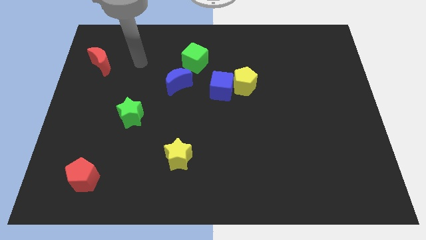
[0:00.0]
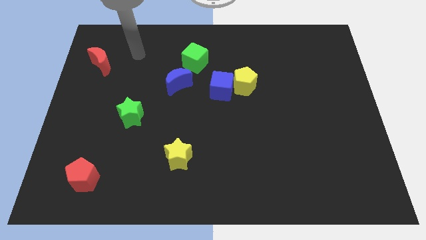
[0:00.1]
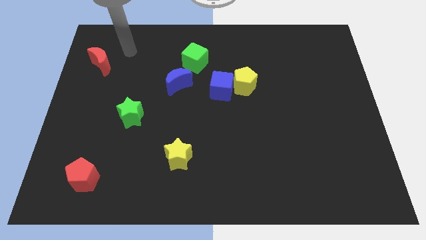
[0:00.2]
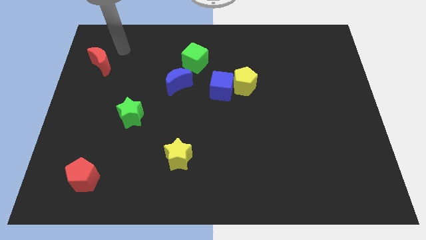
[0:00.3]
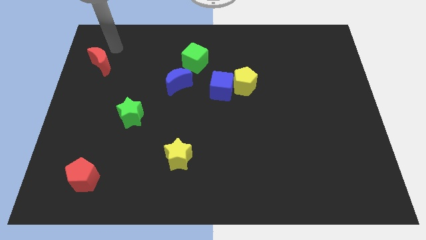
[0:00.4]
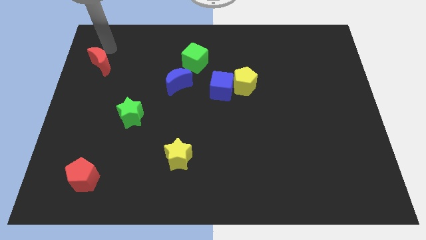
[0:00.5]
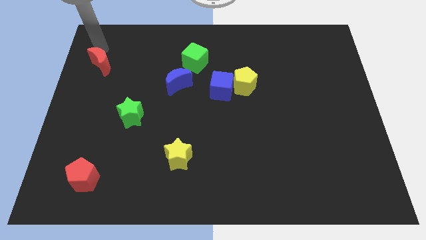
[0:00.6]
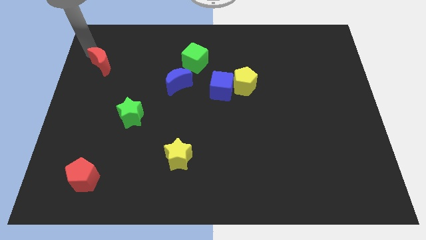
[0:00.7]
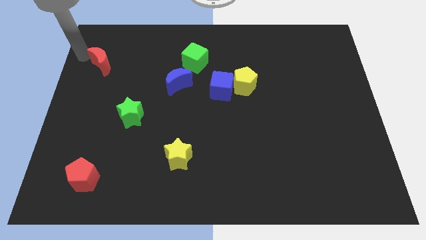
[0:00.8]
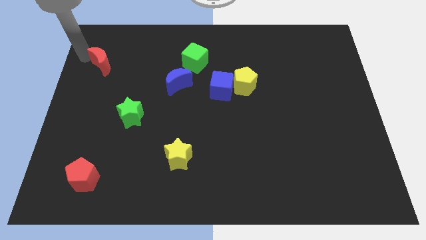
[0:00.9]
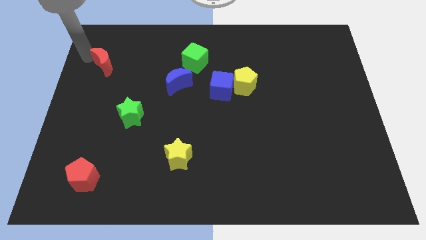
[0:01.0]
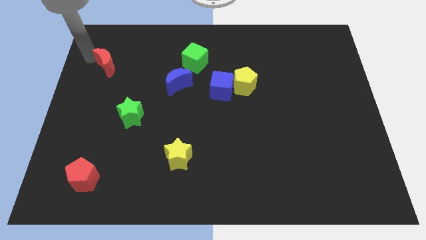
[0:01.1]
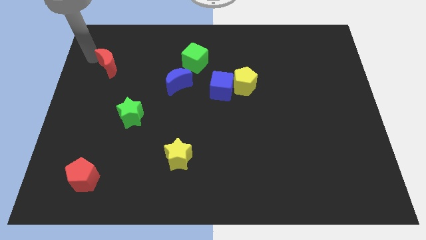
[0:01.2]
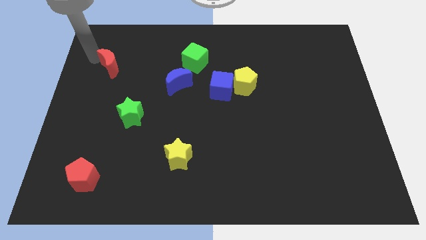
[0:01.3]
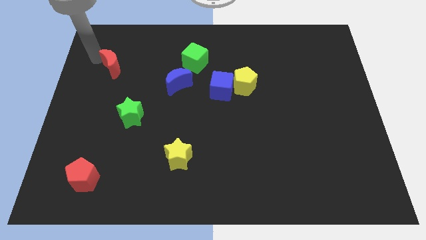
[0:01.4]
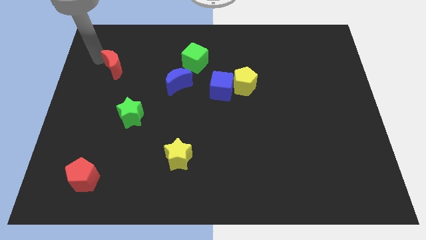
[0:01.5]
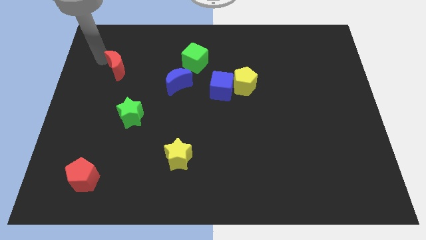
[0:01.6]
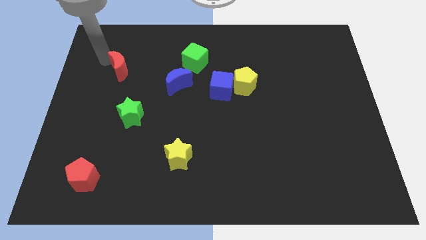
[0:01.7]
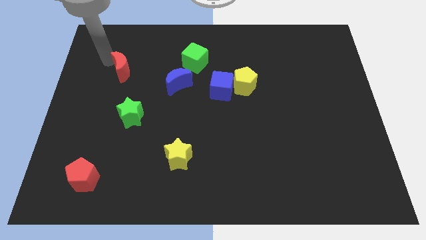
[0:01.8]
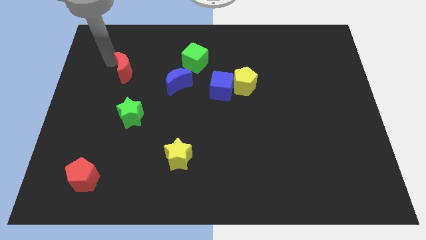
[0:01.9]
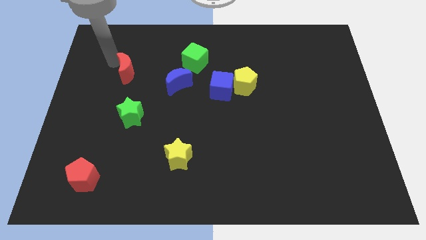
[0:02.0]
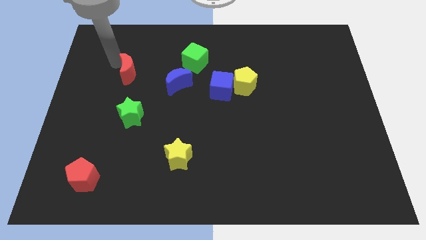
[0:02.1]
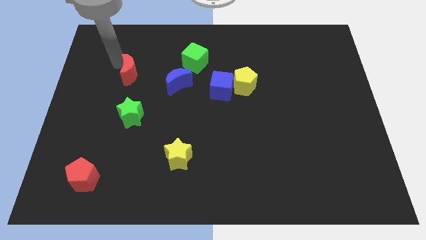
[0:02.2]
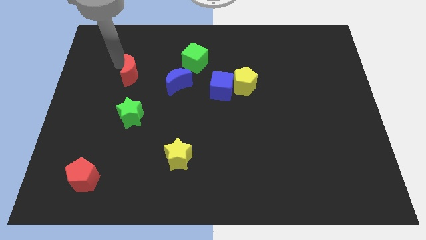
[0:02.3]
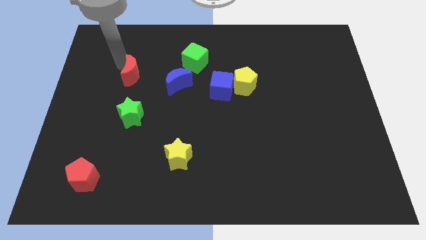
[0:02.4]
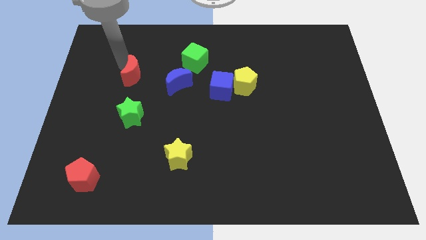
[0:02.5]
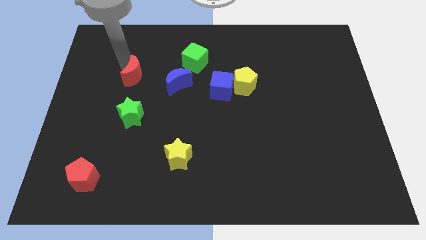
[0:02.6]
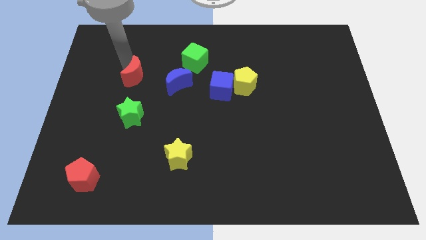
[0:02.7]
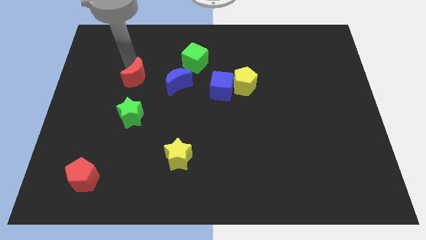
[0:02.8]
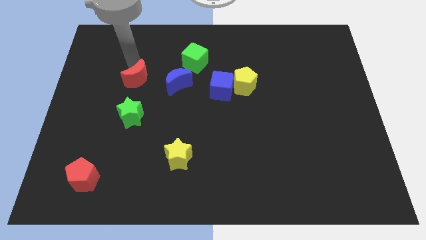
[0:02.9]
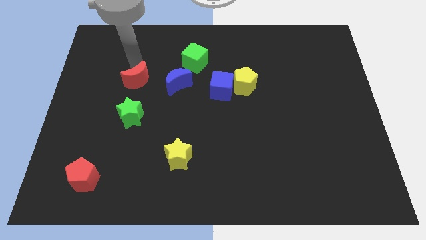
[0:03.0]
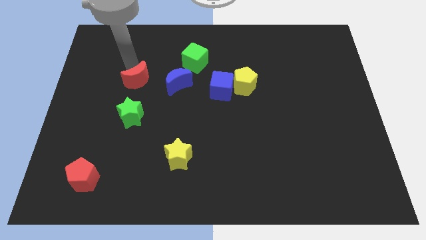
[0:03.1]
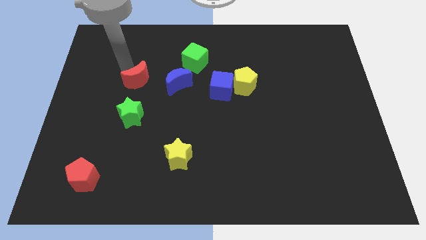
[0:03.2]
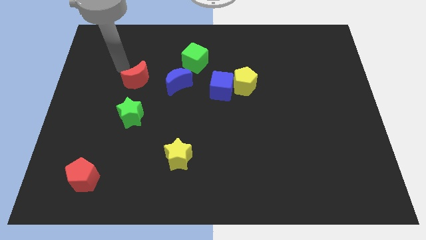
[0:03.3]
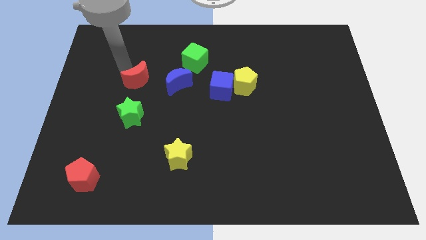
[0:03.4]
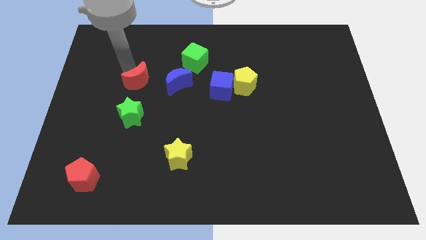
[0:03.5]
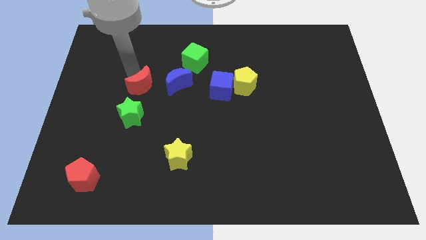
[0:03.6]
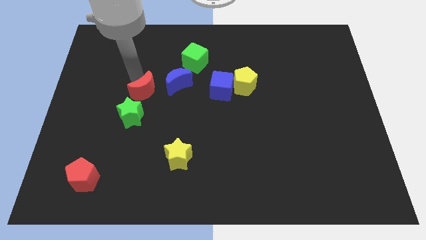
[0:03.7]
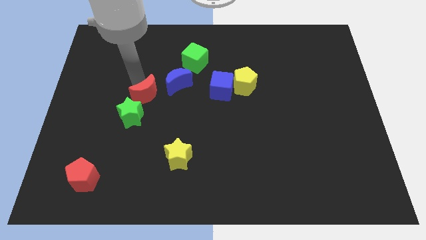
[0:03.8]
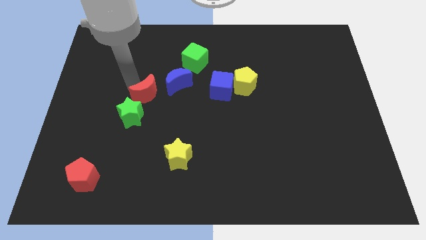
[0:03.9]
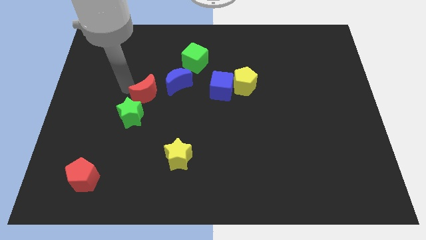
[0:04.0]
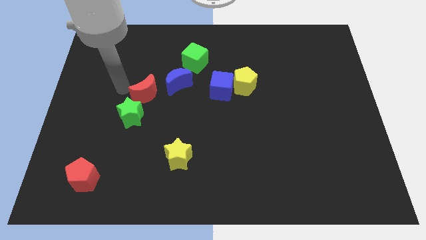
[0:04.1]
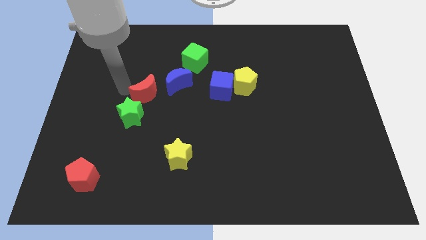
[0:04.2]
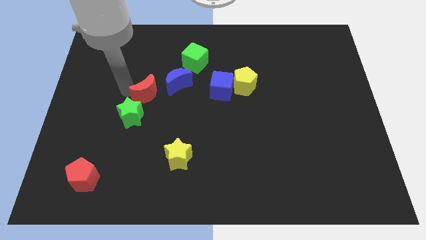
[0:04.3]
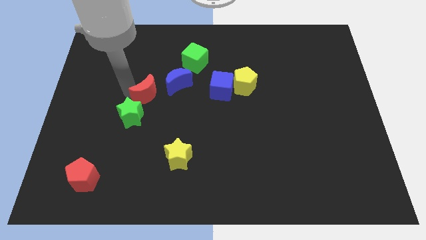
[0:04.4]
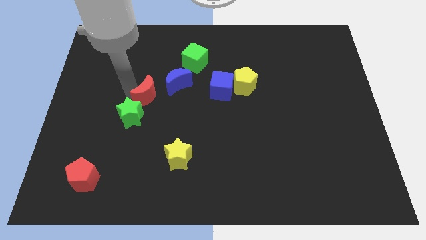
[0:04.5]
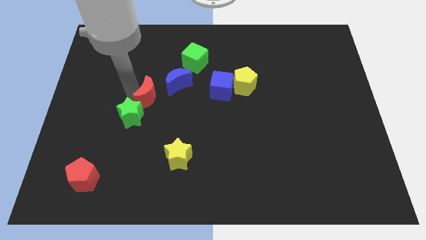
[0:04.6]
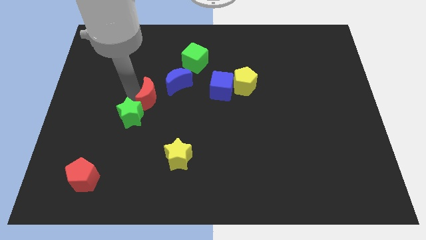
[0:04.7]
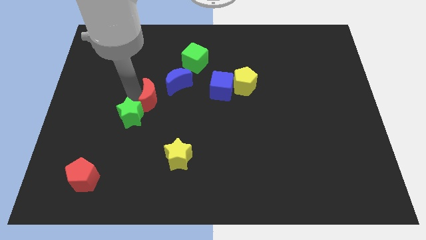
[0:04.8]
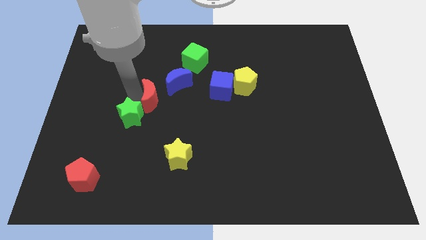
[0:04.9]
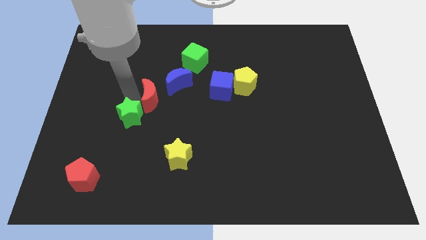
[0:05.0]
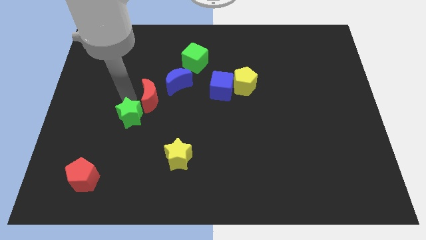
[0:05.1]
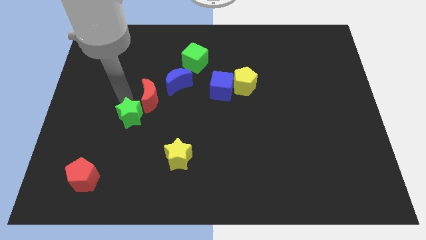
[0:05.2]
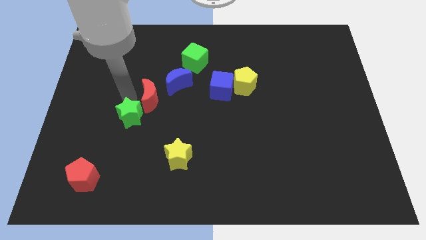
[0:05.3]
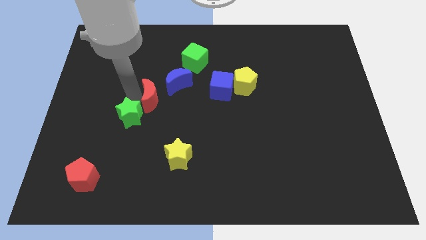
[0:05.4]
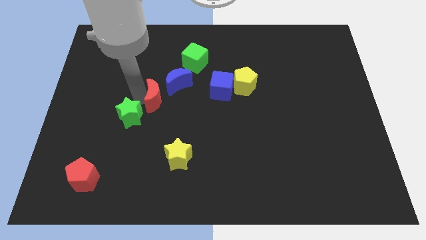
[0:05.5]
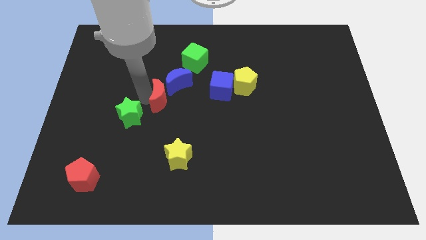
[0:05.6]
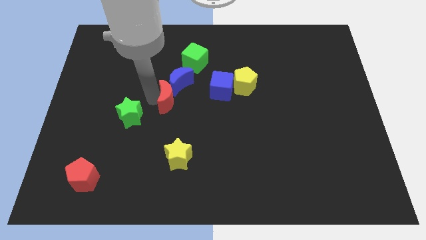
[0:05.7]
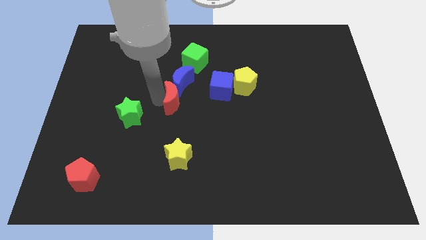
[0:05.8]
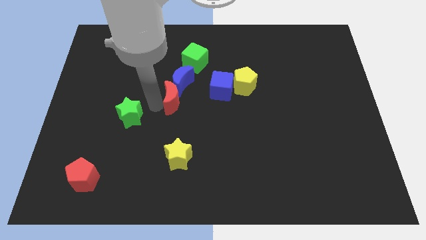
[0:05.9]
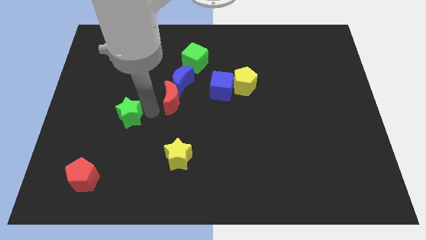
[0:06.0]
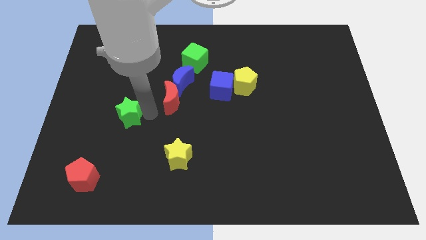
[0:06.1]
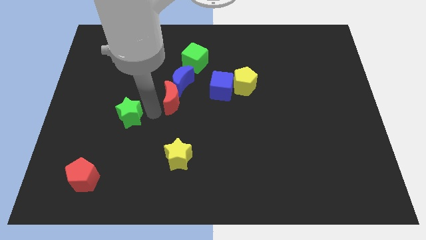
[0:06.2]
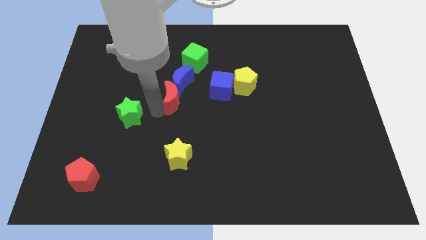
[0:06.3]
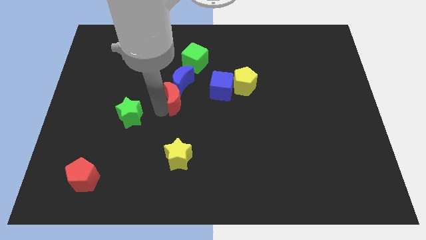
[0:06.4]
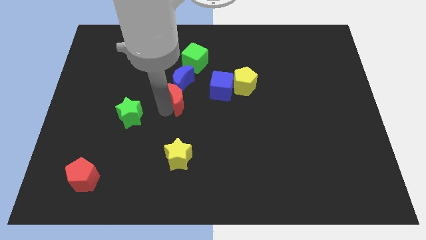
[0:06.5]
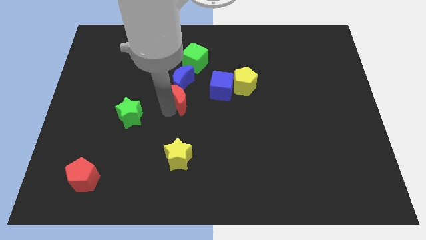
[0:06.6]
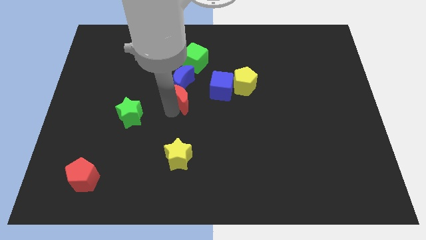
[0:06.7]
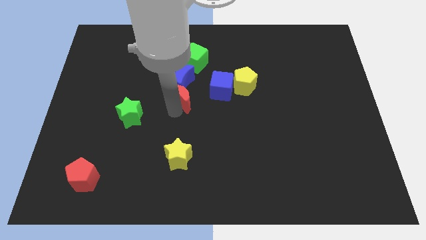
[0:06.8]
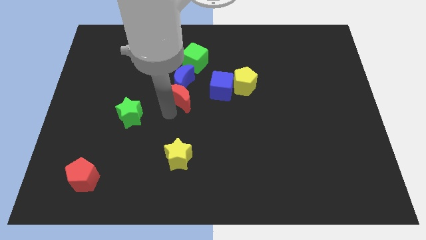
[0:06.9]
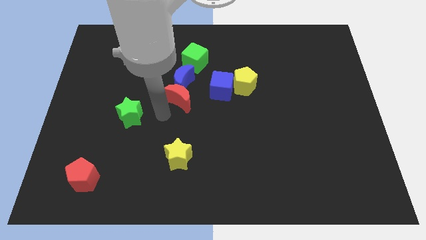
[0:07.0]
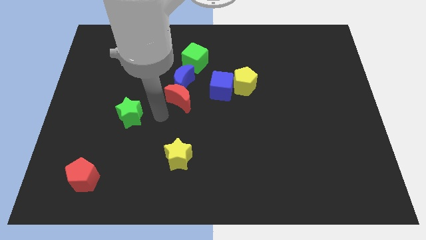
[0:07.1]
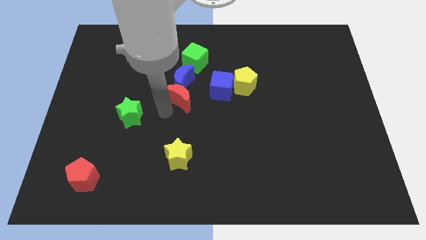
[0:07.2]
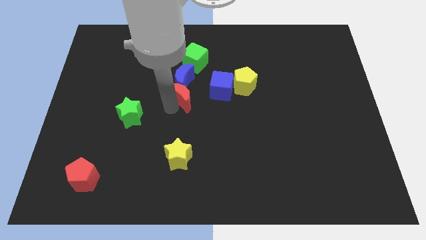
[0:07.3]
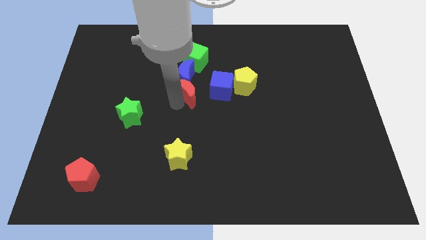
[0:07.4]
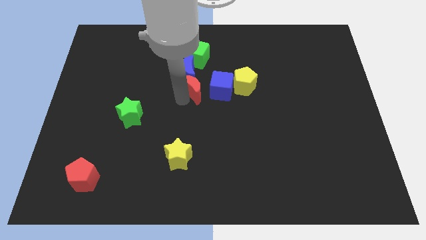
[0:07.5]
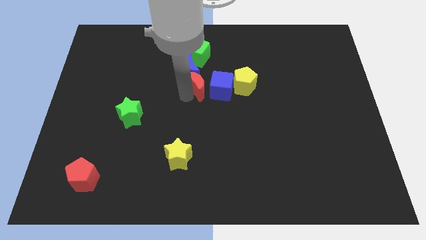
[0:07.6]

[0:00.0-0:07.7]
slide the red moon to the top left of the blue cube
